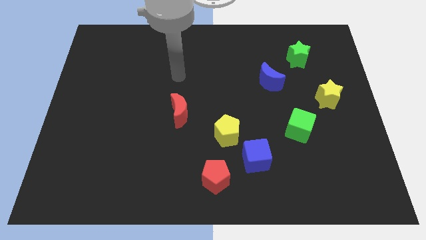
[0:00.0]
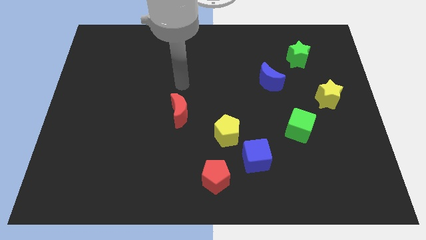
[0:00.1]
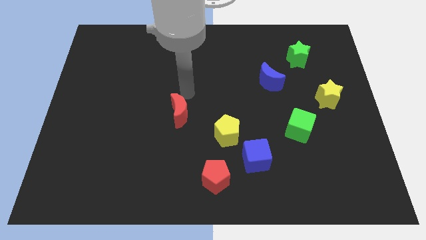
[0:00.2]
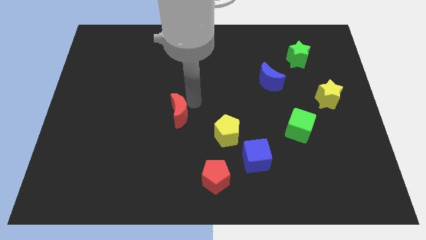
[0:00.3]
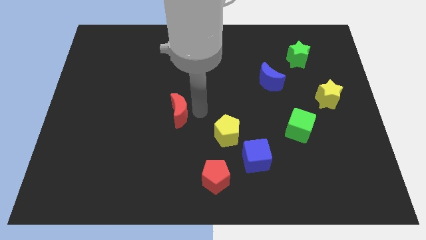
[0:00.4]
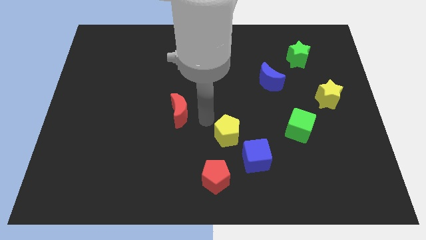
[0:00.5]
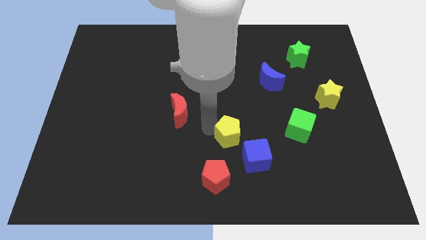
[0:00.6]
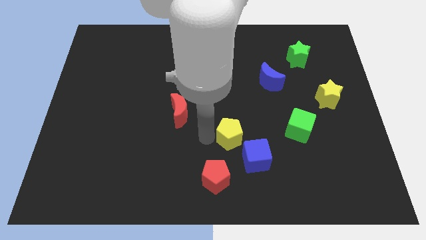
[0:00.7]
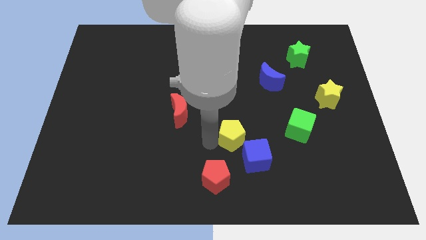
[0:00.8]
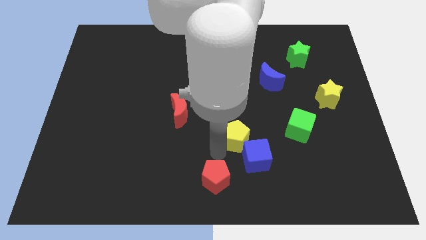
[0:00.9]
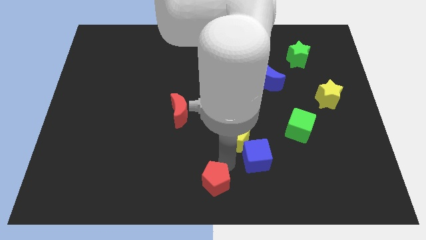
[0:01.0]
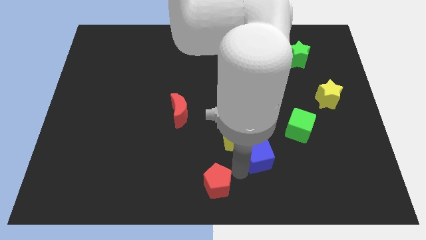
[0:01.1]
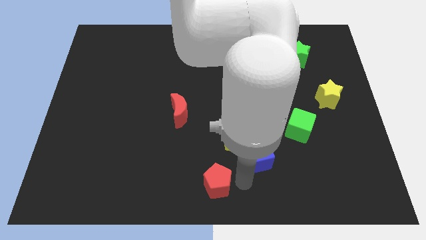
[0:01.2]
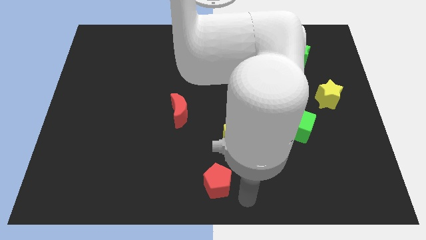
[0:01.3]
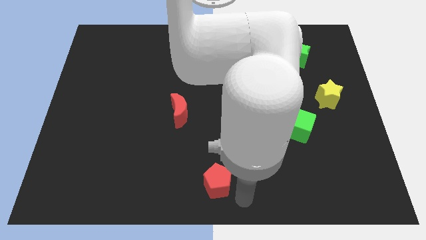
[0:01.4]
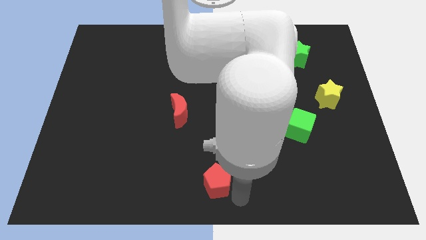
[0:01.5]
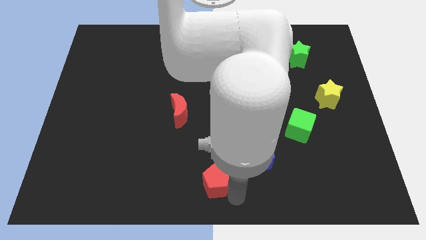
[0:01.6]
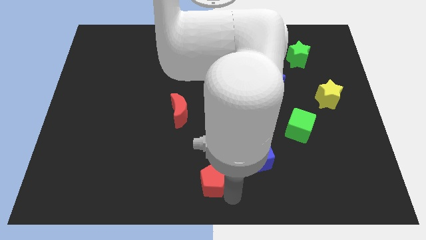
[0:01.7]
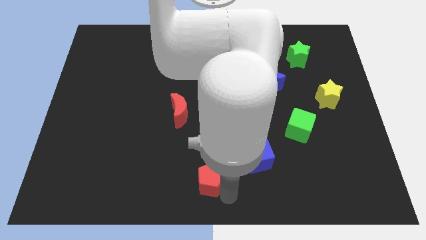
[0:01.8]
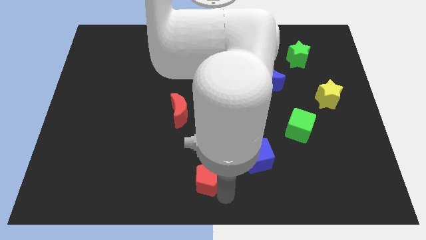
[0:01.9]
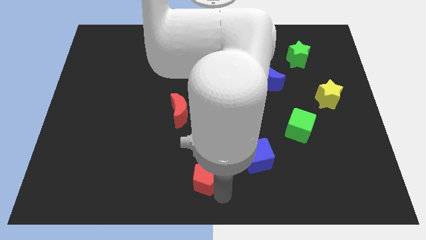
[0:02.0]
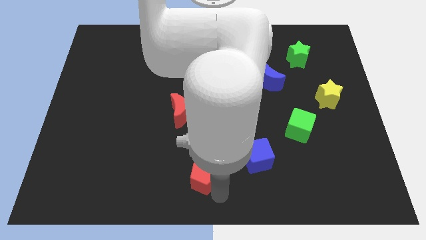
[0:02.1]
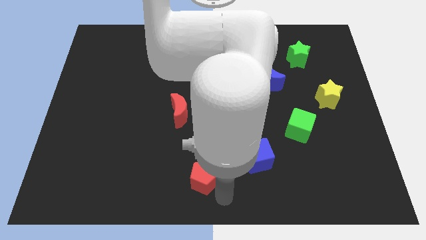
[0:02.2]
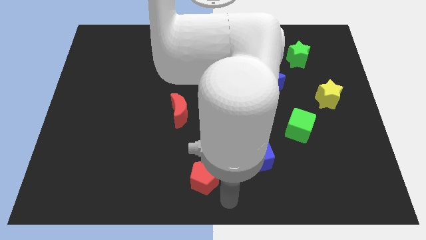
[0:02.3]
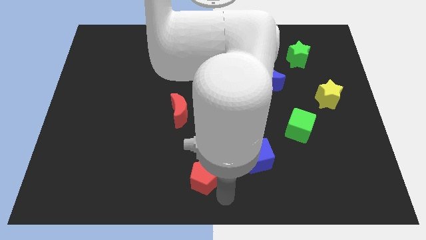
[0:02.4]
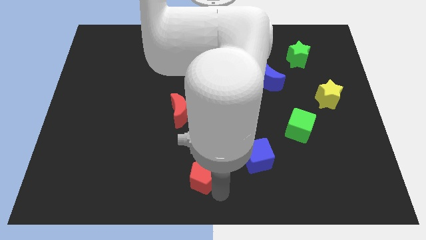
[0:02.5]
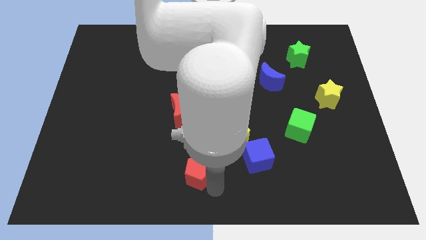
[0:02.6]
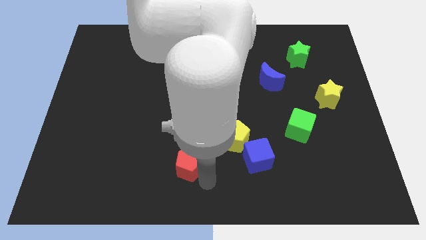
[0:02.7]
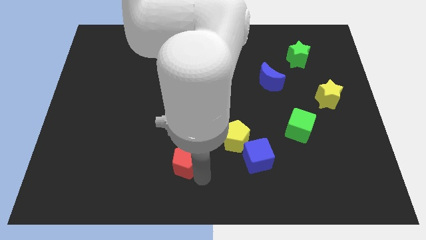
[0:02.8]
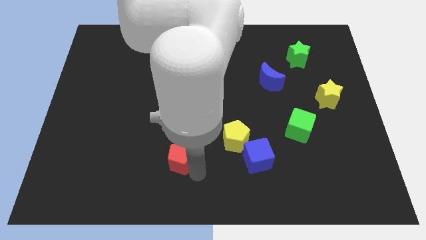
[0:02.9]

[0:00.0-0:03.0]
slide the red pentagon a little bit up and then left

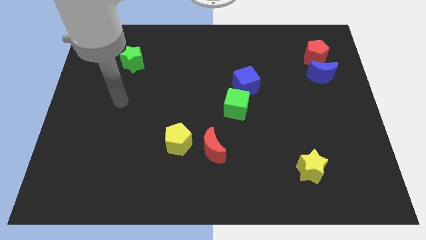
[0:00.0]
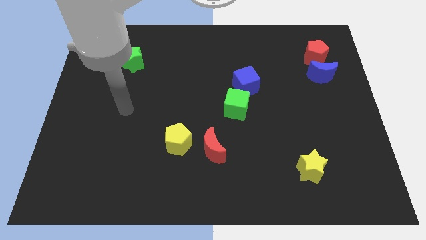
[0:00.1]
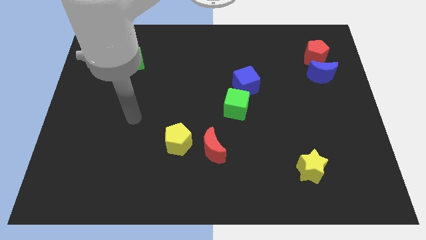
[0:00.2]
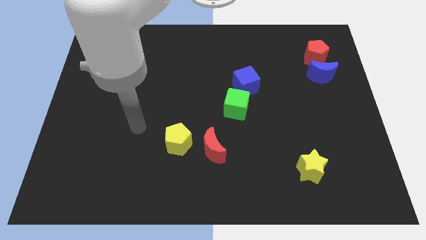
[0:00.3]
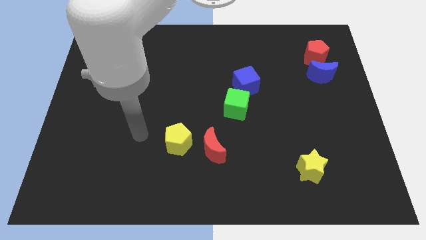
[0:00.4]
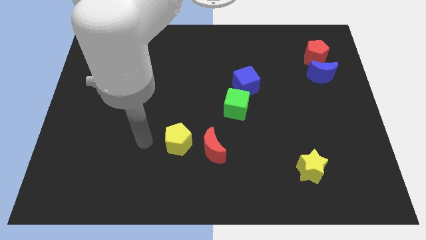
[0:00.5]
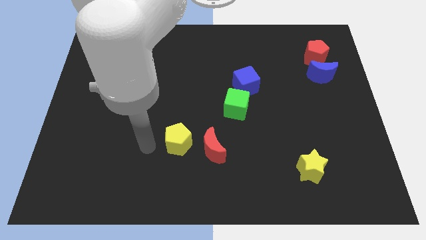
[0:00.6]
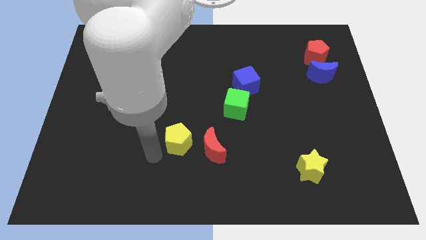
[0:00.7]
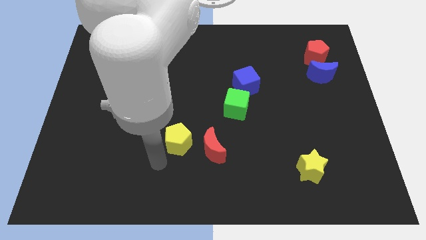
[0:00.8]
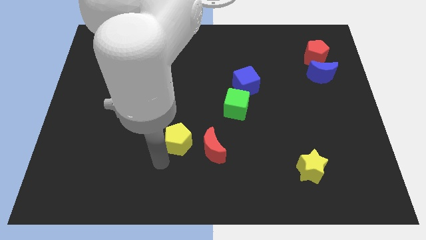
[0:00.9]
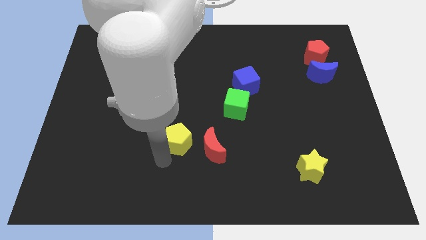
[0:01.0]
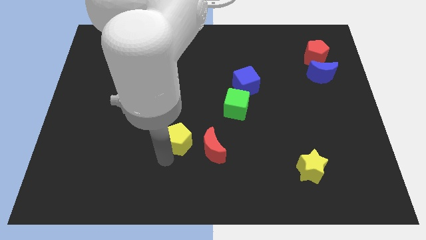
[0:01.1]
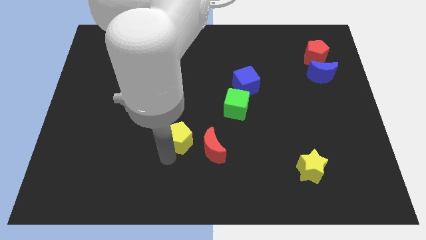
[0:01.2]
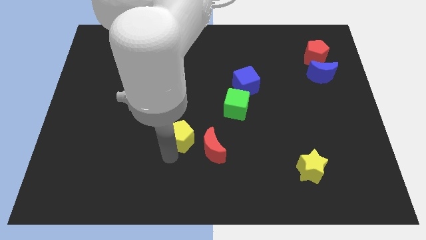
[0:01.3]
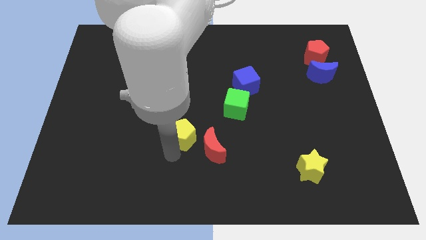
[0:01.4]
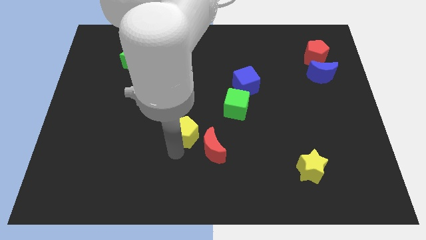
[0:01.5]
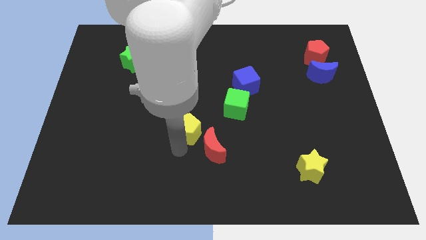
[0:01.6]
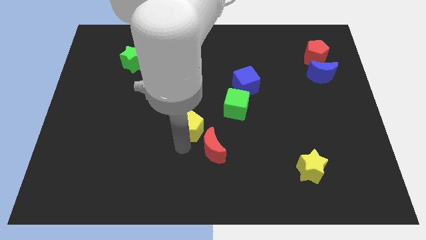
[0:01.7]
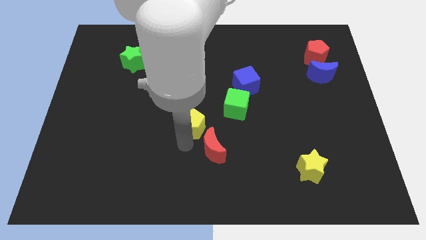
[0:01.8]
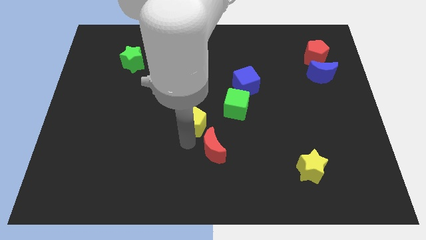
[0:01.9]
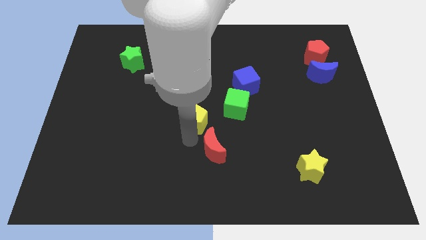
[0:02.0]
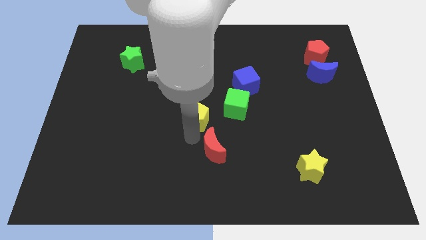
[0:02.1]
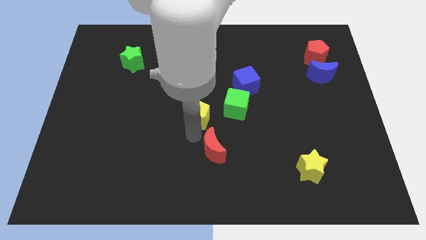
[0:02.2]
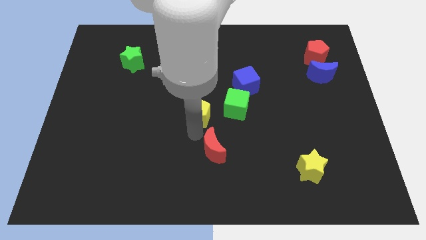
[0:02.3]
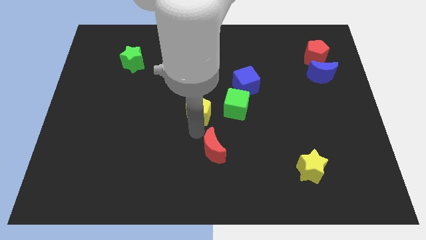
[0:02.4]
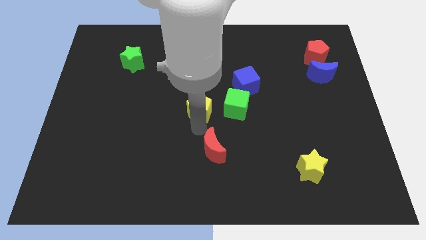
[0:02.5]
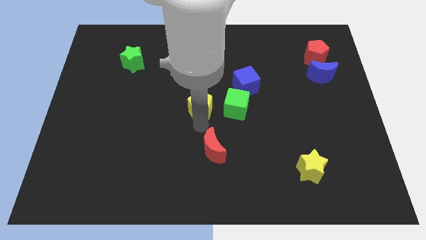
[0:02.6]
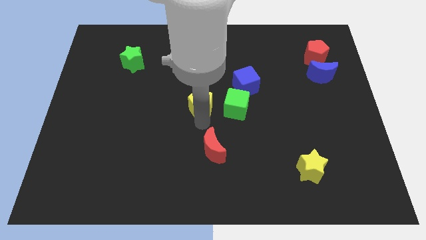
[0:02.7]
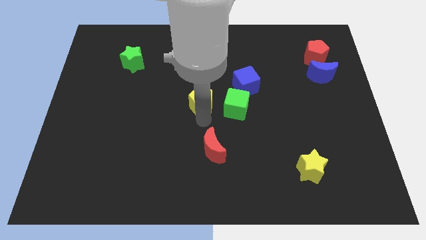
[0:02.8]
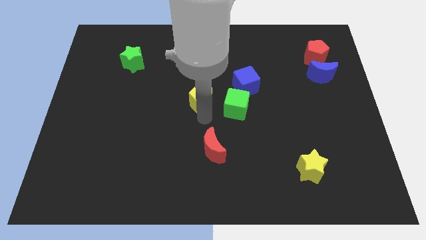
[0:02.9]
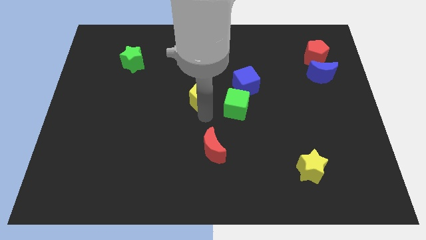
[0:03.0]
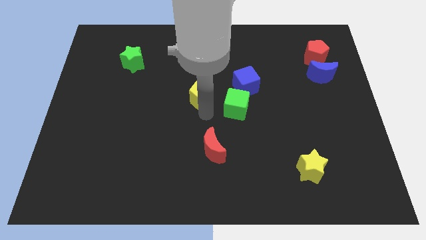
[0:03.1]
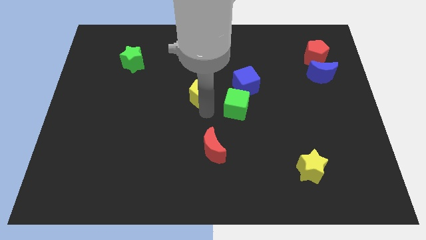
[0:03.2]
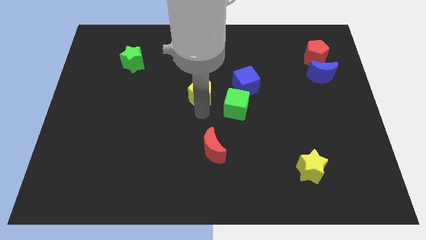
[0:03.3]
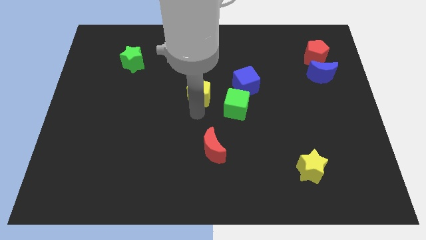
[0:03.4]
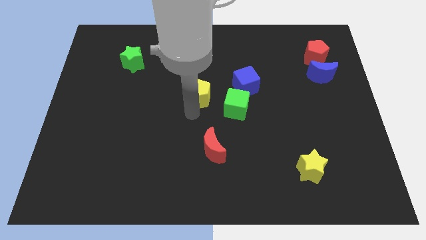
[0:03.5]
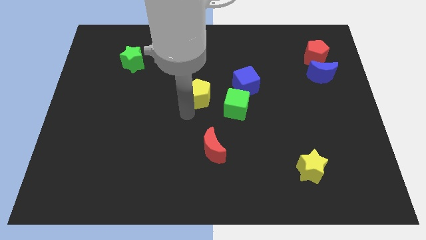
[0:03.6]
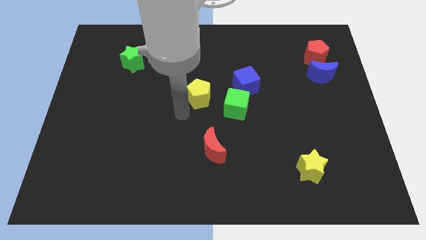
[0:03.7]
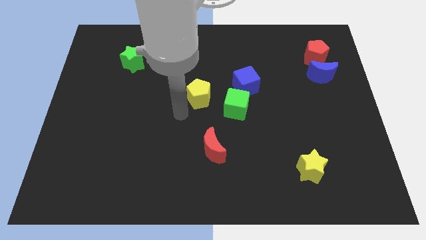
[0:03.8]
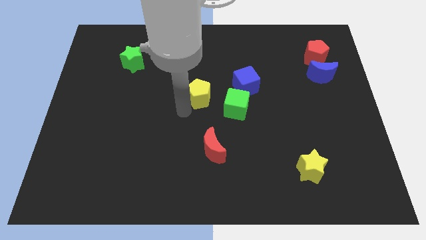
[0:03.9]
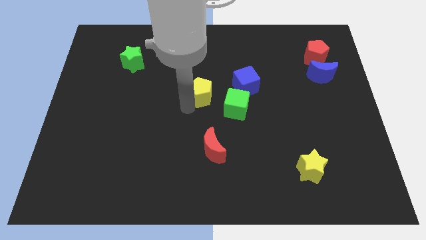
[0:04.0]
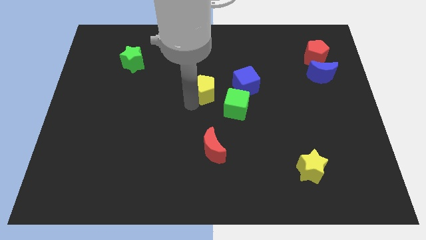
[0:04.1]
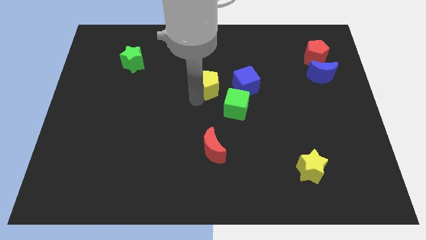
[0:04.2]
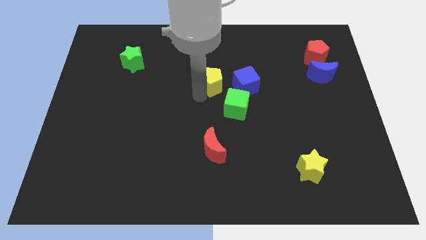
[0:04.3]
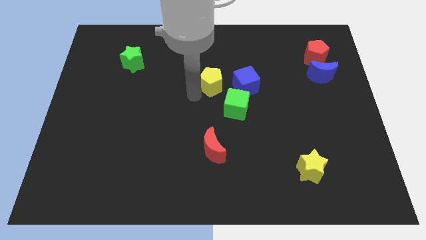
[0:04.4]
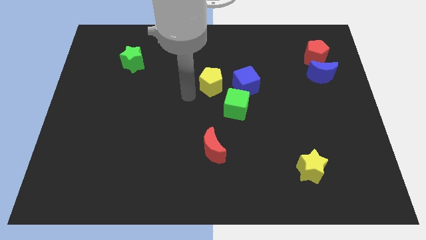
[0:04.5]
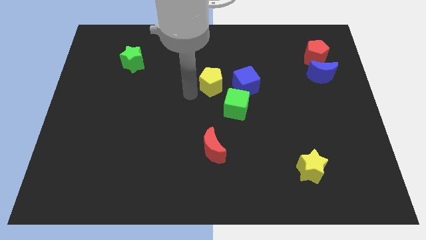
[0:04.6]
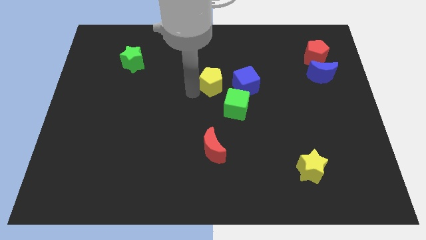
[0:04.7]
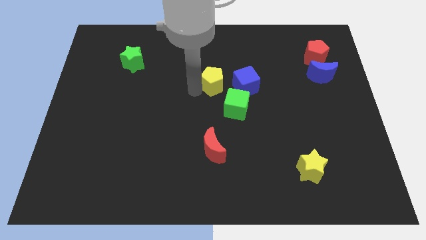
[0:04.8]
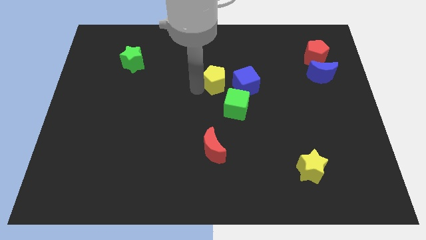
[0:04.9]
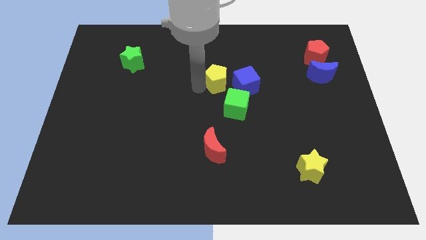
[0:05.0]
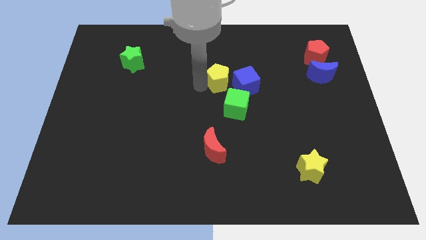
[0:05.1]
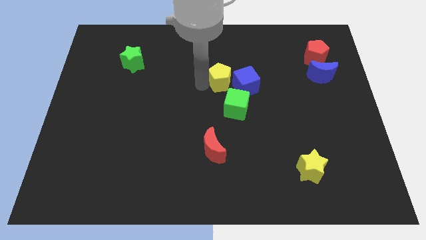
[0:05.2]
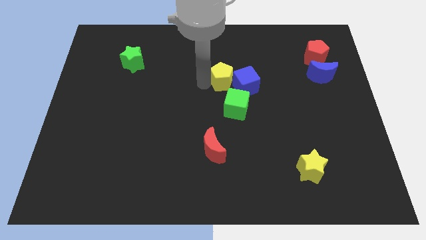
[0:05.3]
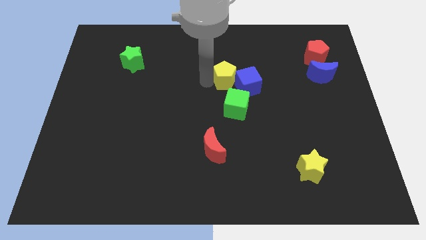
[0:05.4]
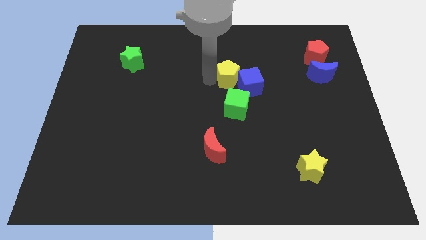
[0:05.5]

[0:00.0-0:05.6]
slide the yellow pentagon up and right diagonally
